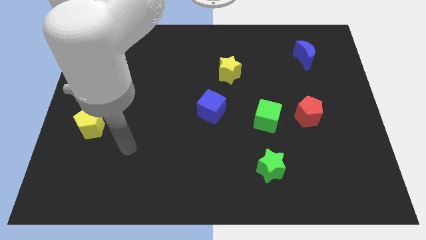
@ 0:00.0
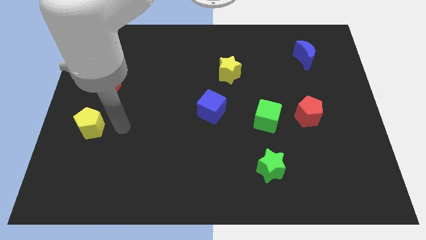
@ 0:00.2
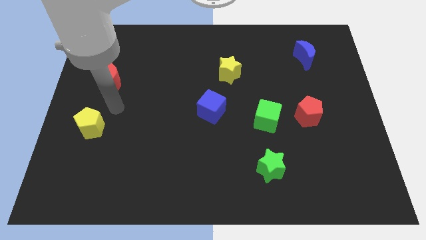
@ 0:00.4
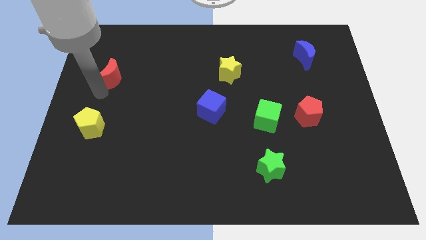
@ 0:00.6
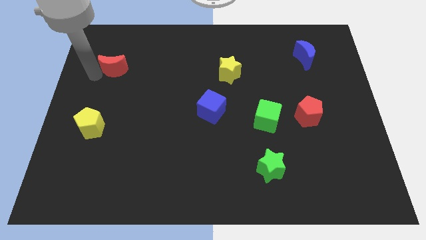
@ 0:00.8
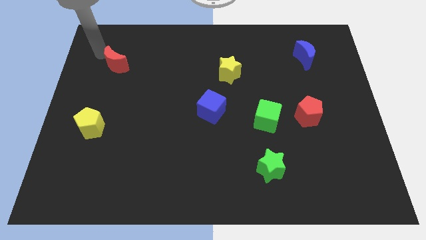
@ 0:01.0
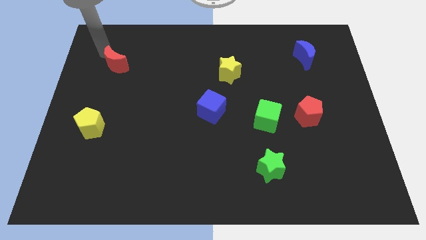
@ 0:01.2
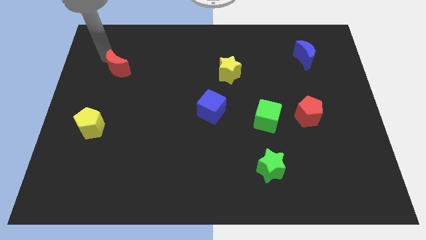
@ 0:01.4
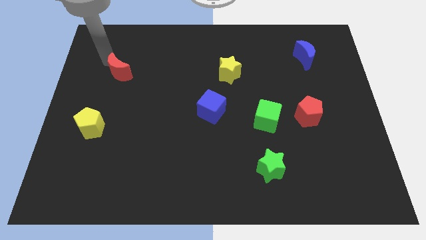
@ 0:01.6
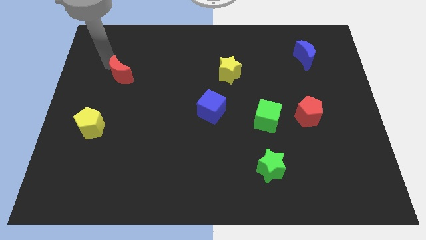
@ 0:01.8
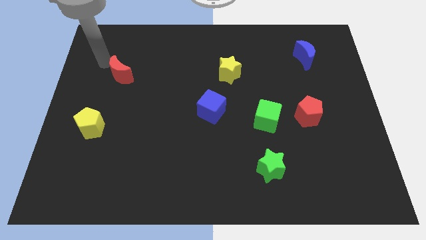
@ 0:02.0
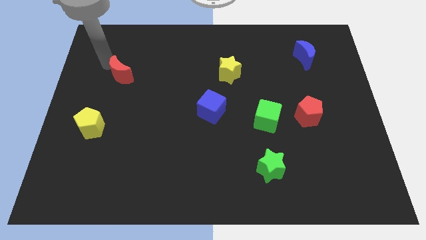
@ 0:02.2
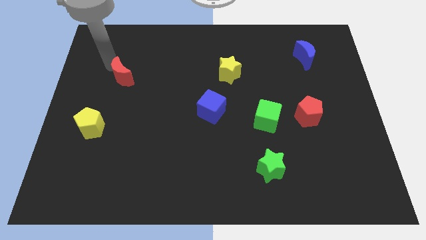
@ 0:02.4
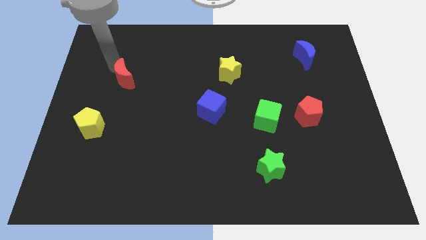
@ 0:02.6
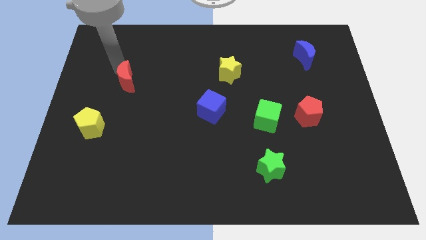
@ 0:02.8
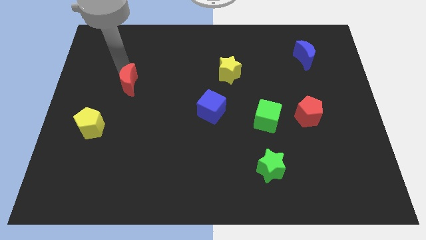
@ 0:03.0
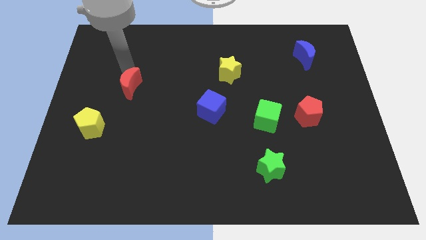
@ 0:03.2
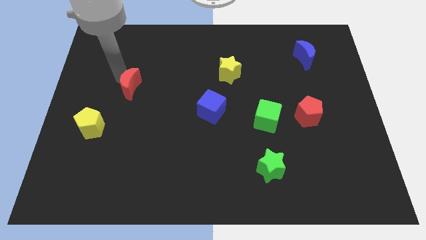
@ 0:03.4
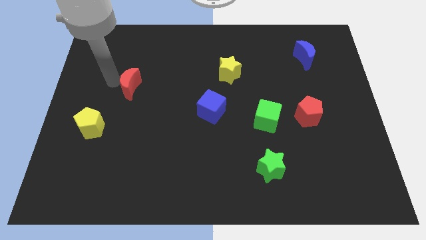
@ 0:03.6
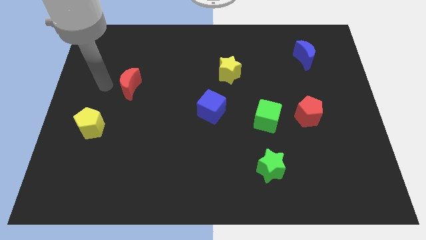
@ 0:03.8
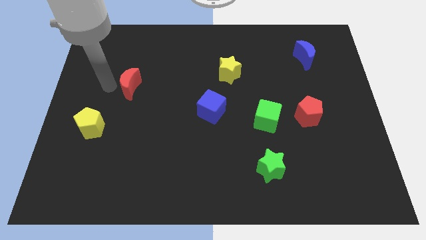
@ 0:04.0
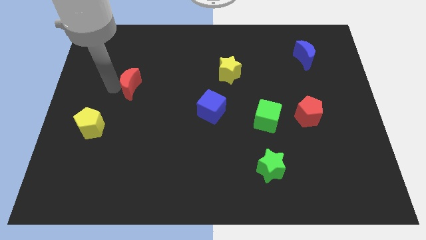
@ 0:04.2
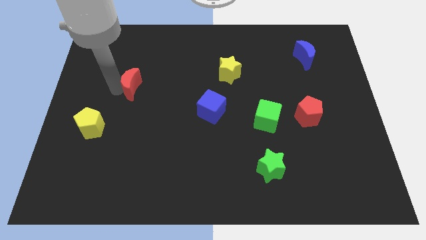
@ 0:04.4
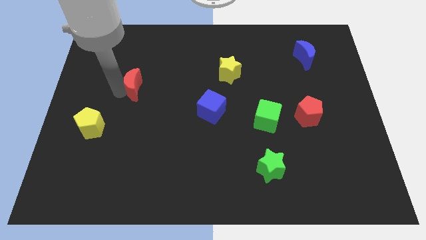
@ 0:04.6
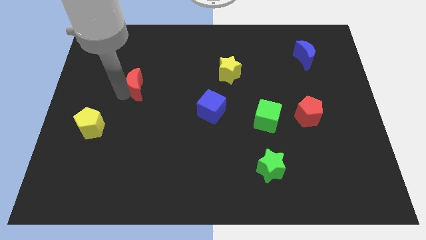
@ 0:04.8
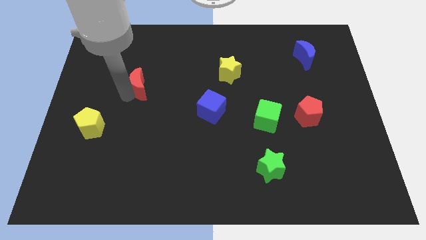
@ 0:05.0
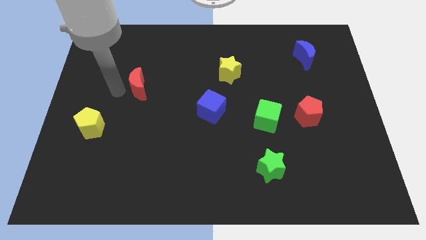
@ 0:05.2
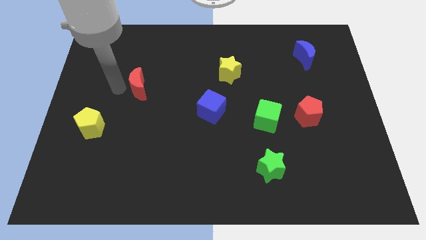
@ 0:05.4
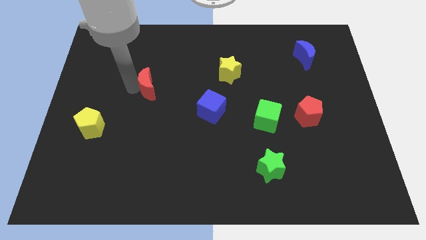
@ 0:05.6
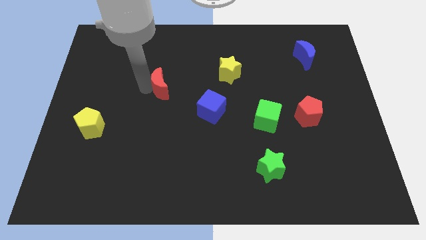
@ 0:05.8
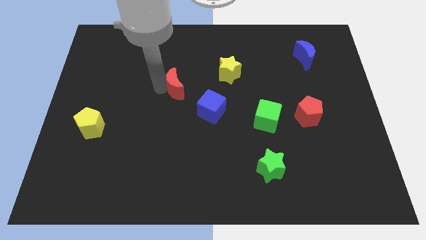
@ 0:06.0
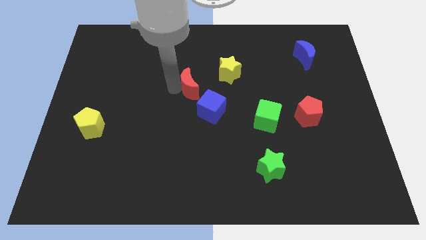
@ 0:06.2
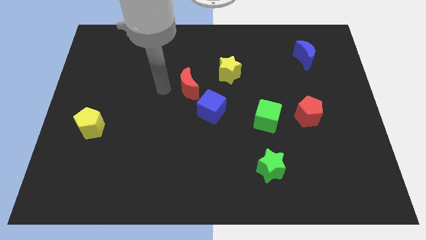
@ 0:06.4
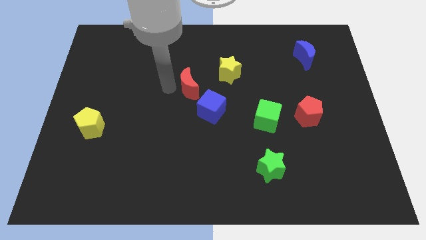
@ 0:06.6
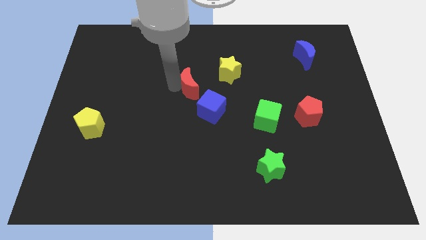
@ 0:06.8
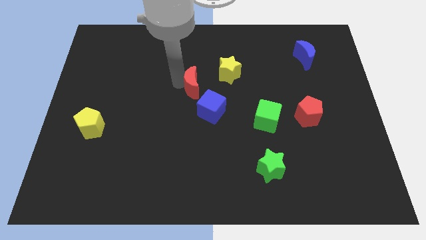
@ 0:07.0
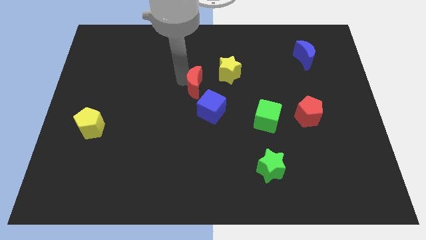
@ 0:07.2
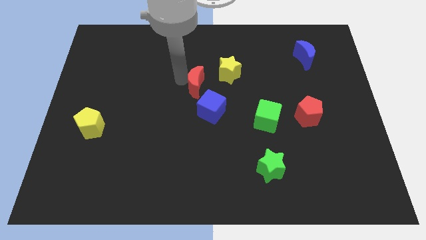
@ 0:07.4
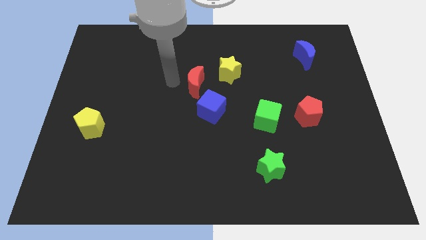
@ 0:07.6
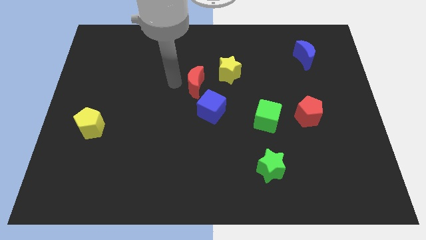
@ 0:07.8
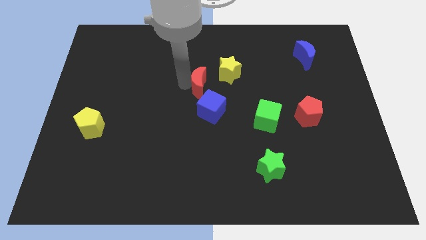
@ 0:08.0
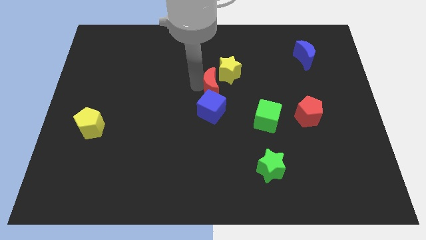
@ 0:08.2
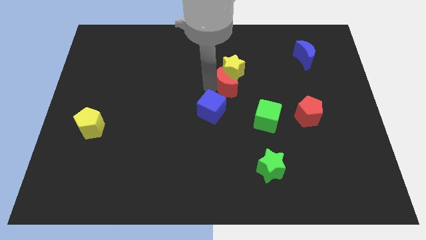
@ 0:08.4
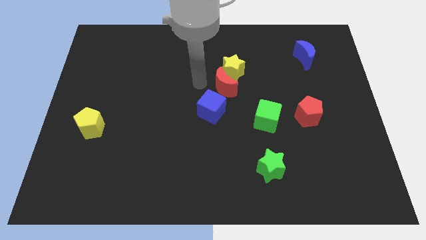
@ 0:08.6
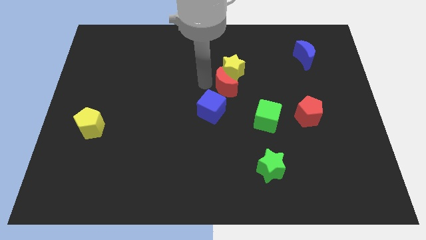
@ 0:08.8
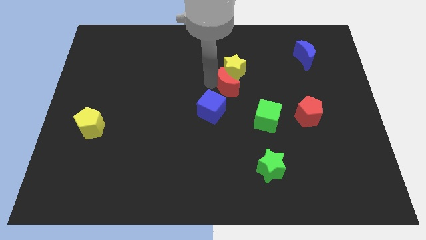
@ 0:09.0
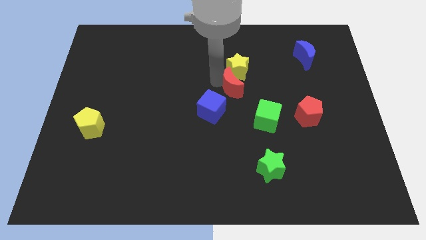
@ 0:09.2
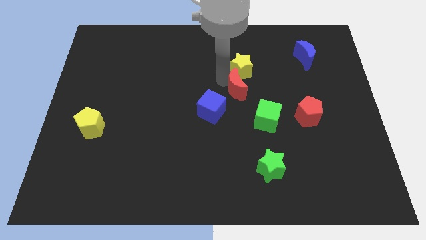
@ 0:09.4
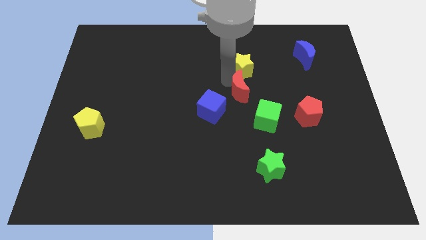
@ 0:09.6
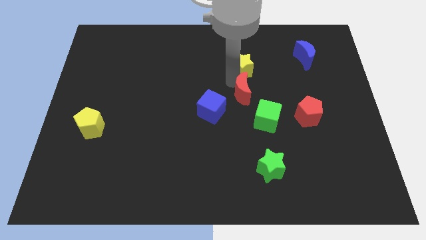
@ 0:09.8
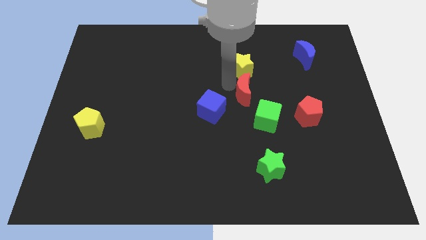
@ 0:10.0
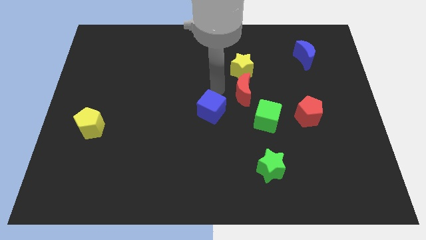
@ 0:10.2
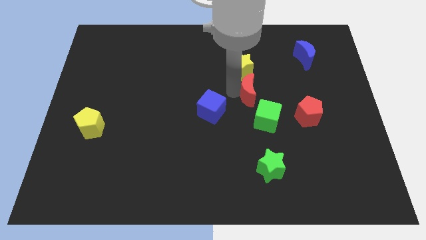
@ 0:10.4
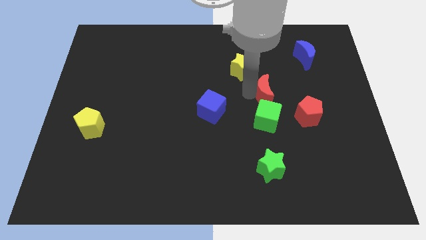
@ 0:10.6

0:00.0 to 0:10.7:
slide the red moon to the top left side of the red pentagon

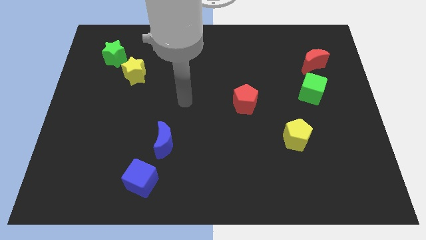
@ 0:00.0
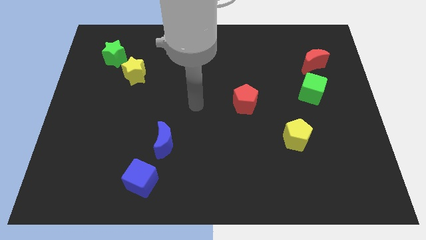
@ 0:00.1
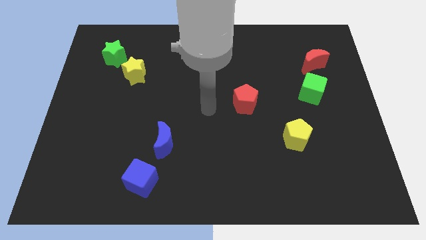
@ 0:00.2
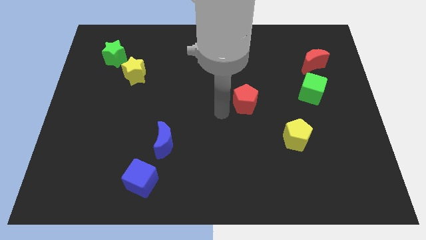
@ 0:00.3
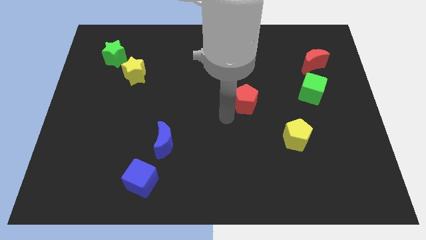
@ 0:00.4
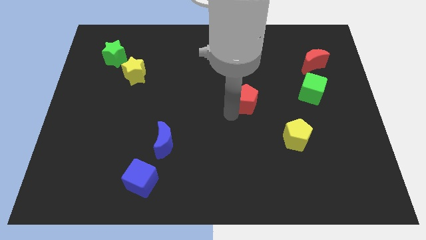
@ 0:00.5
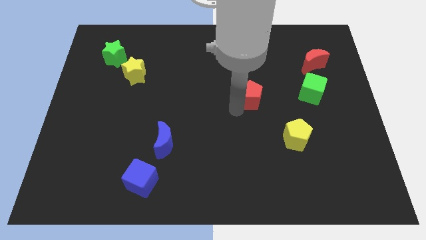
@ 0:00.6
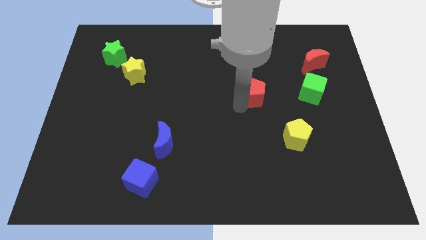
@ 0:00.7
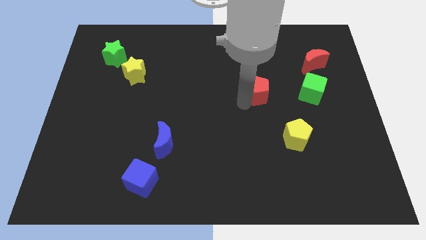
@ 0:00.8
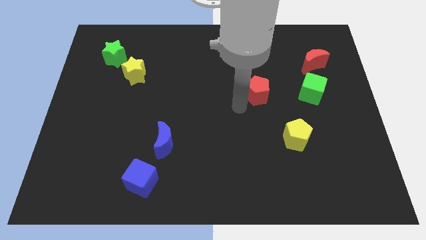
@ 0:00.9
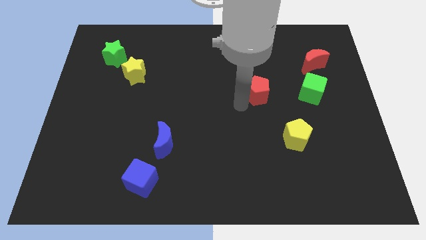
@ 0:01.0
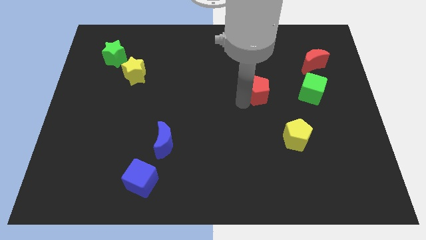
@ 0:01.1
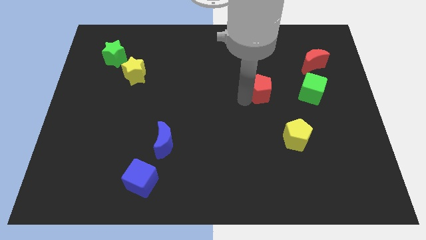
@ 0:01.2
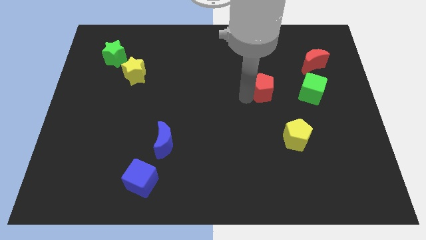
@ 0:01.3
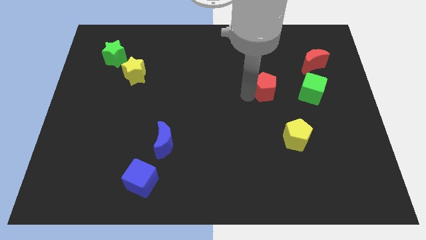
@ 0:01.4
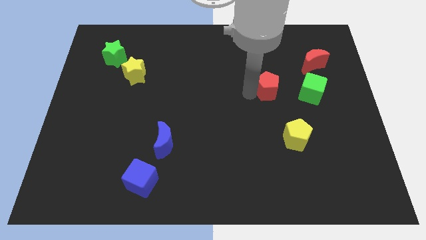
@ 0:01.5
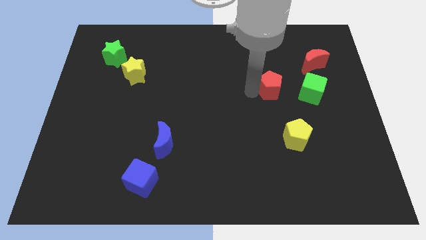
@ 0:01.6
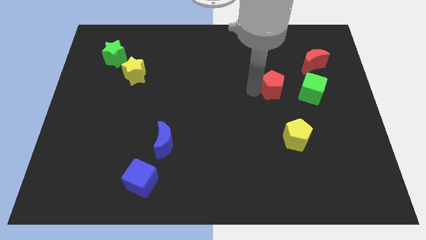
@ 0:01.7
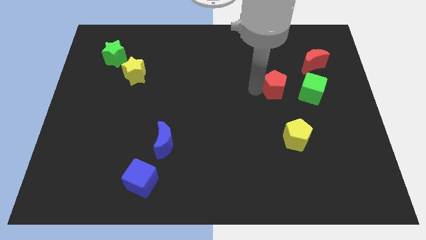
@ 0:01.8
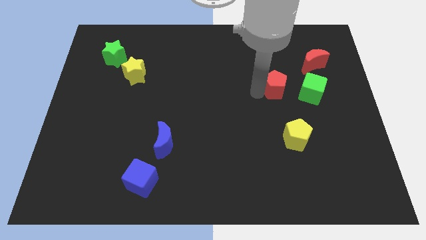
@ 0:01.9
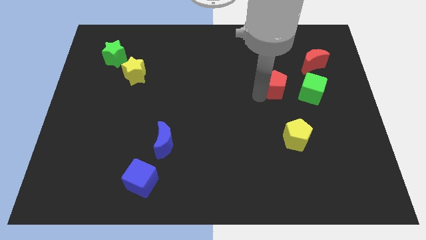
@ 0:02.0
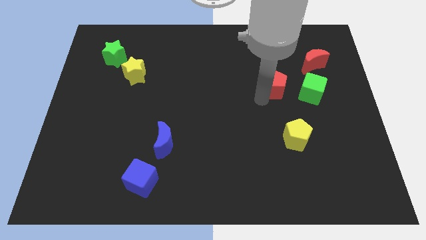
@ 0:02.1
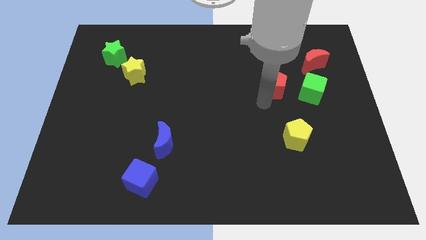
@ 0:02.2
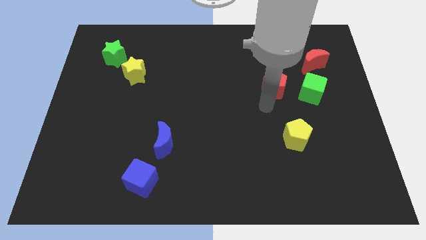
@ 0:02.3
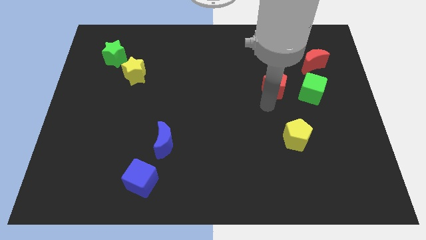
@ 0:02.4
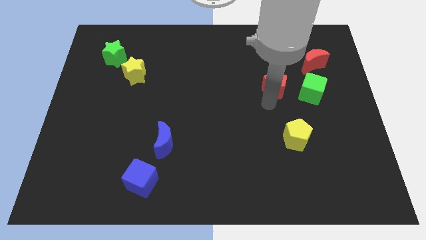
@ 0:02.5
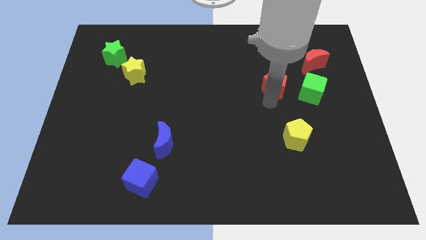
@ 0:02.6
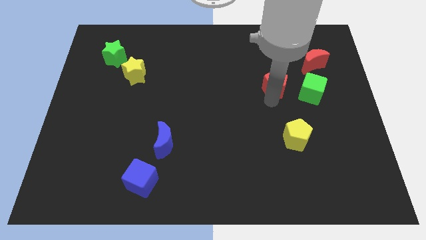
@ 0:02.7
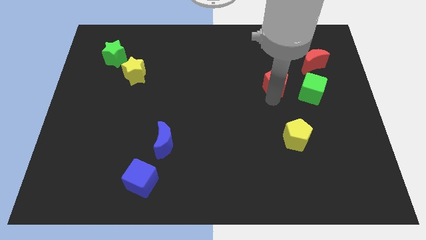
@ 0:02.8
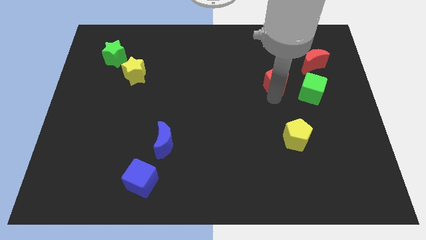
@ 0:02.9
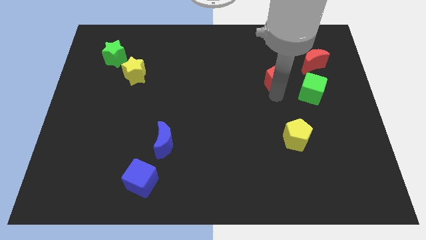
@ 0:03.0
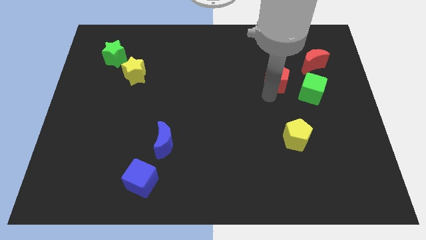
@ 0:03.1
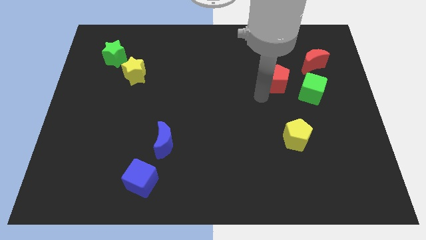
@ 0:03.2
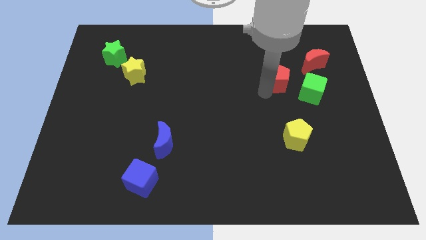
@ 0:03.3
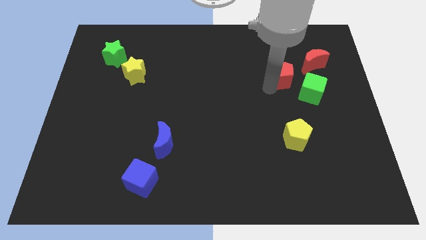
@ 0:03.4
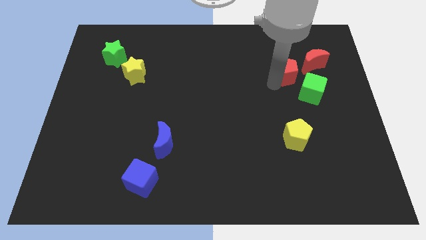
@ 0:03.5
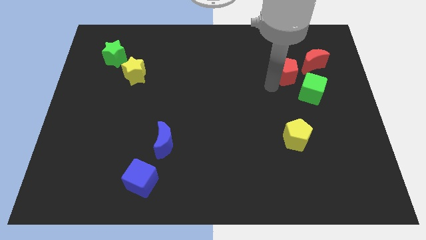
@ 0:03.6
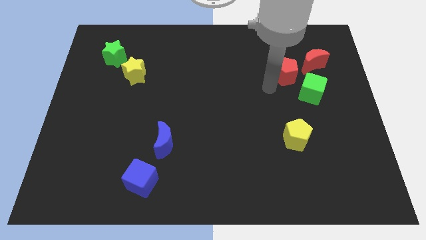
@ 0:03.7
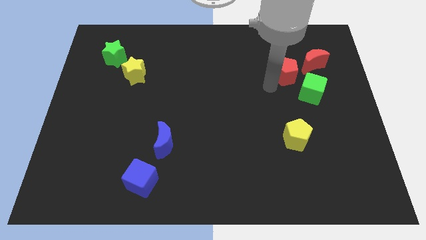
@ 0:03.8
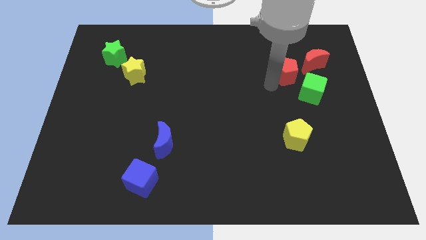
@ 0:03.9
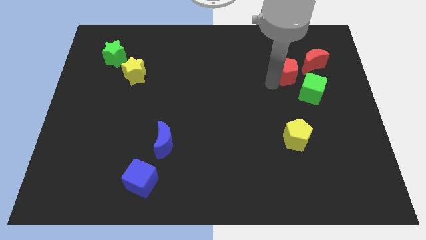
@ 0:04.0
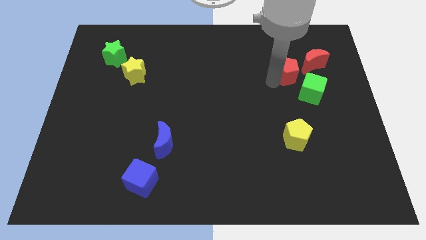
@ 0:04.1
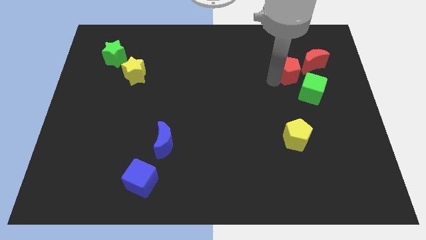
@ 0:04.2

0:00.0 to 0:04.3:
push the red pentagon to the top of the green cube
